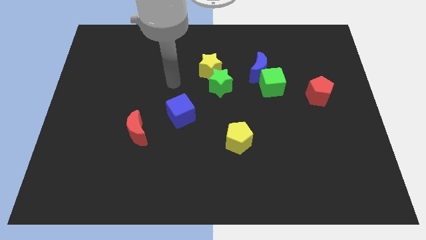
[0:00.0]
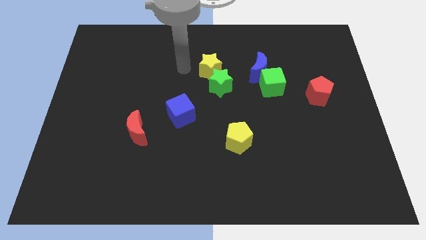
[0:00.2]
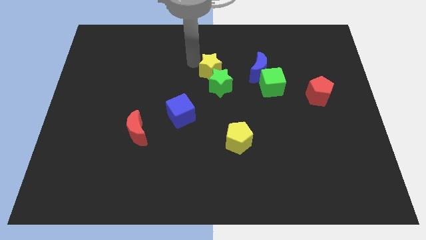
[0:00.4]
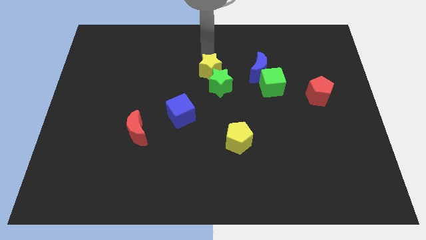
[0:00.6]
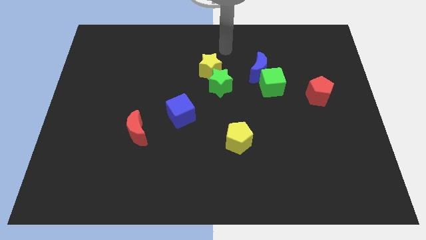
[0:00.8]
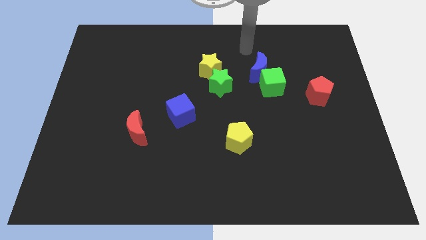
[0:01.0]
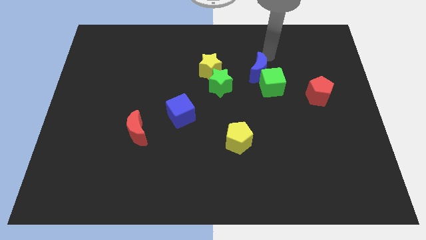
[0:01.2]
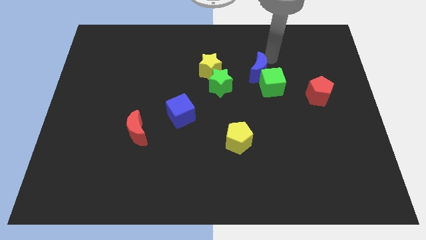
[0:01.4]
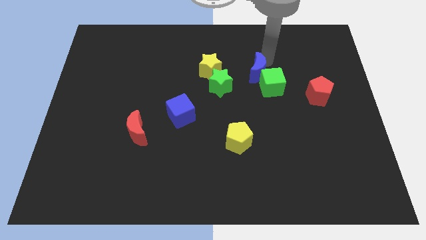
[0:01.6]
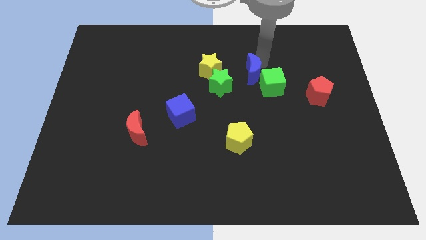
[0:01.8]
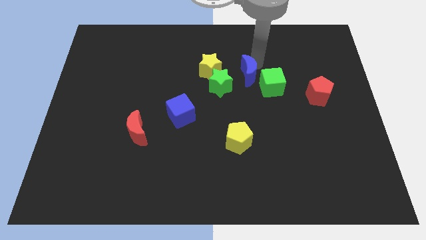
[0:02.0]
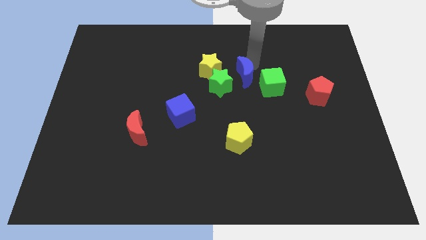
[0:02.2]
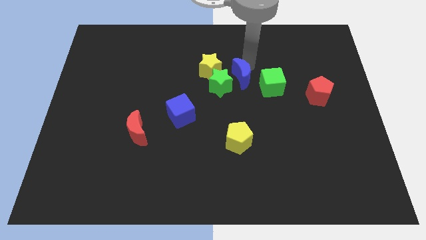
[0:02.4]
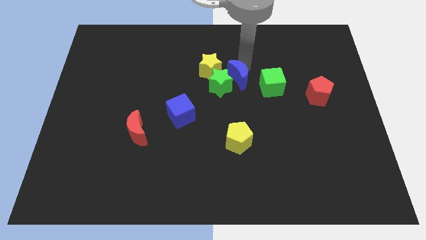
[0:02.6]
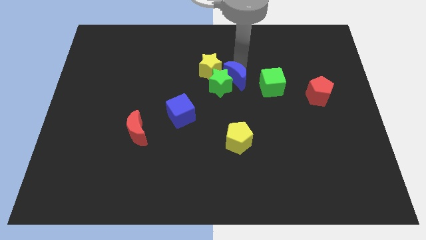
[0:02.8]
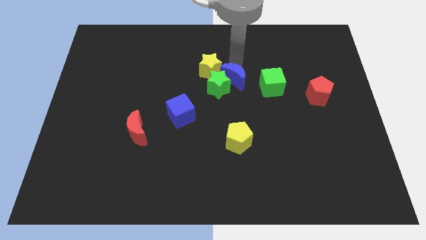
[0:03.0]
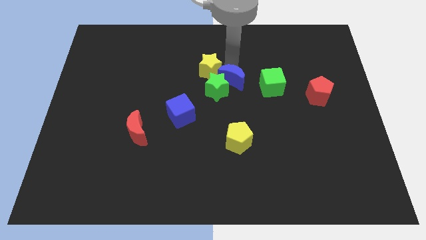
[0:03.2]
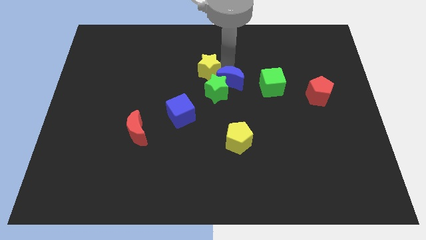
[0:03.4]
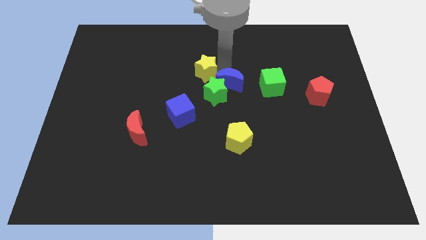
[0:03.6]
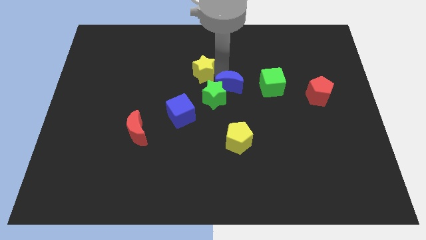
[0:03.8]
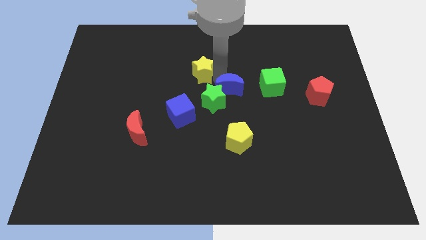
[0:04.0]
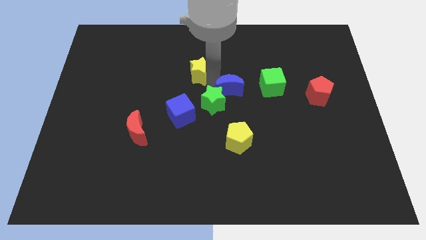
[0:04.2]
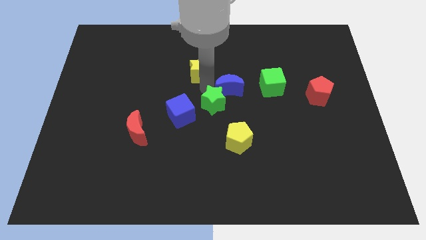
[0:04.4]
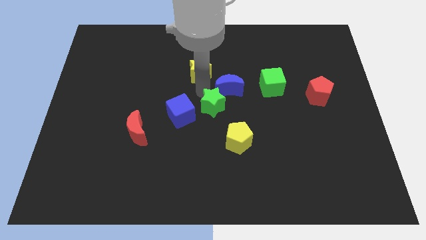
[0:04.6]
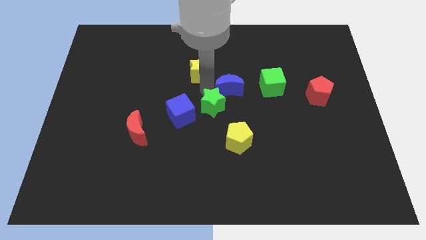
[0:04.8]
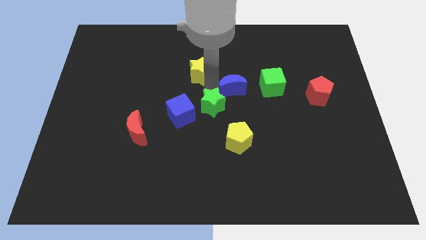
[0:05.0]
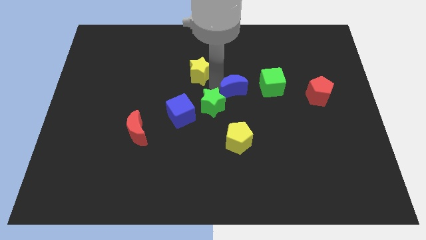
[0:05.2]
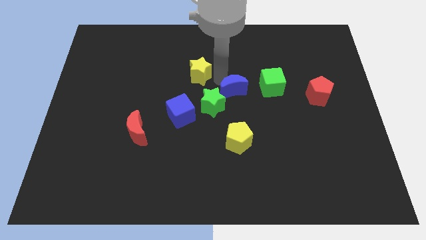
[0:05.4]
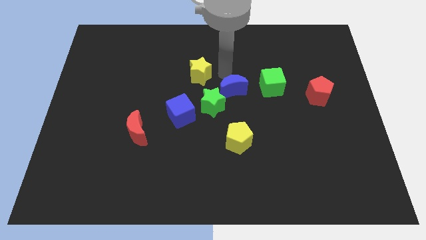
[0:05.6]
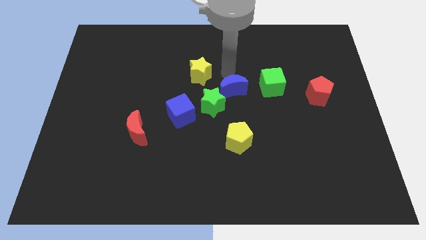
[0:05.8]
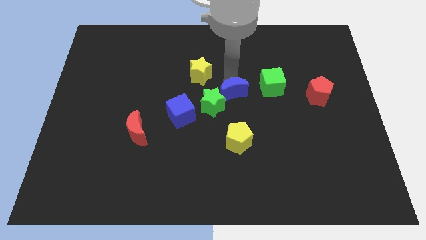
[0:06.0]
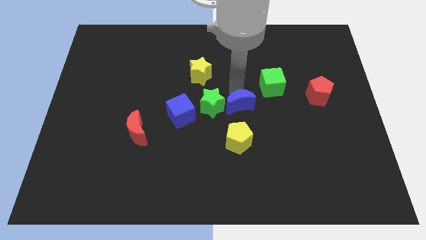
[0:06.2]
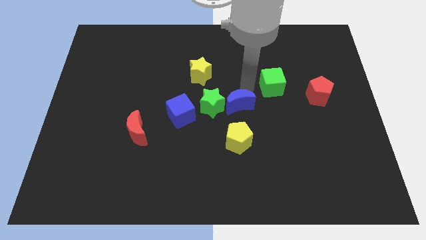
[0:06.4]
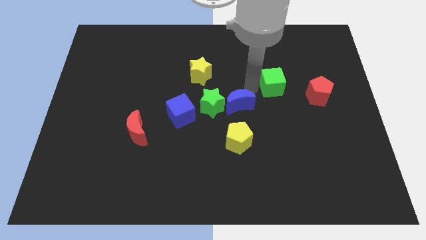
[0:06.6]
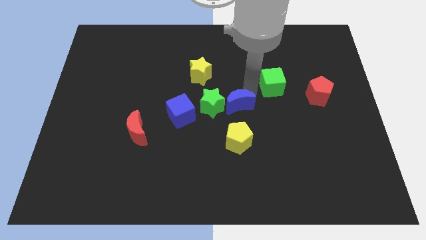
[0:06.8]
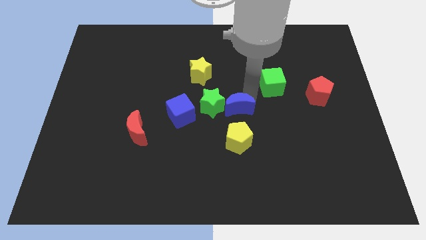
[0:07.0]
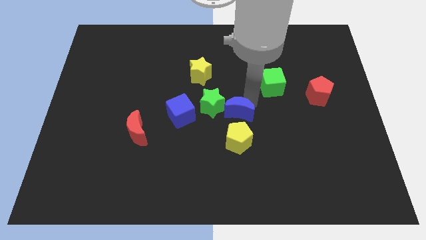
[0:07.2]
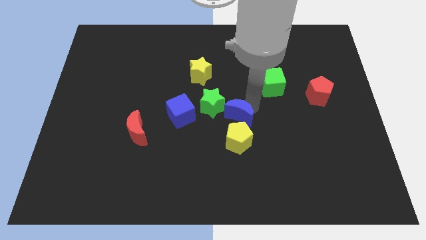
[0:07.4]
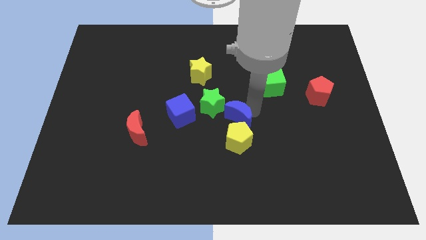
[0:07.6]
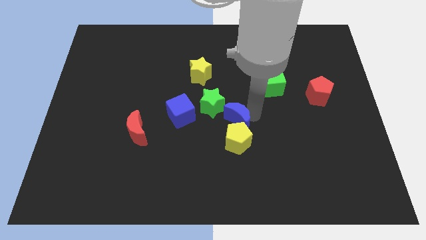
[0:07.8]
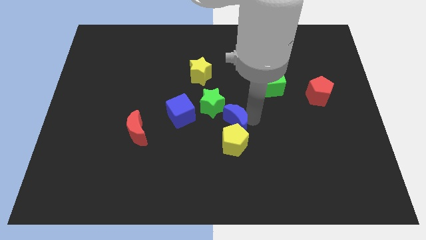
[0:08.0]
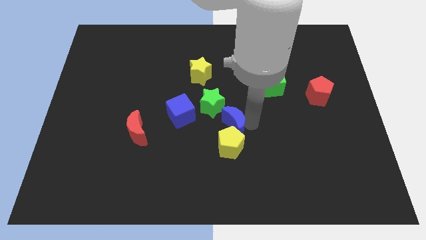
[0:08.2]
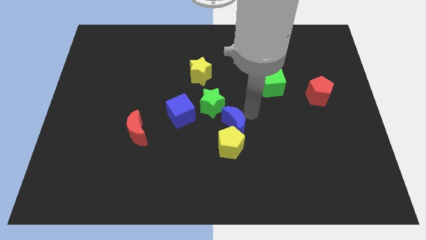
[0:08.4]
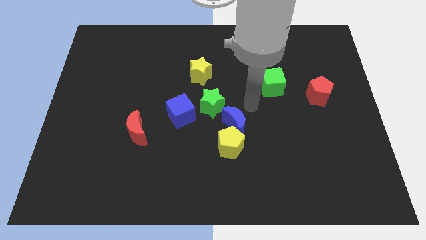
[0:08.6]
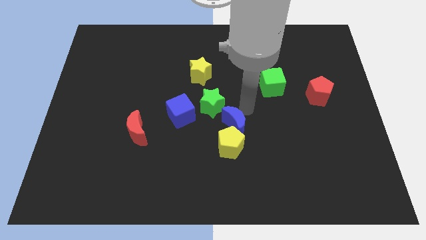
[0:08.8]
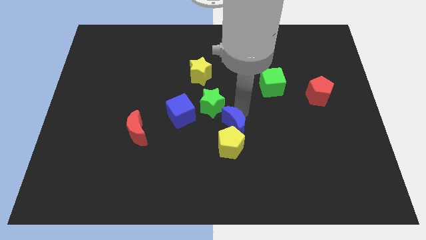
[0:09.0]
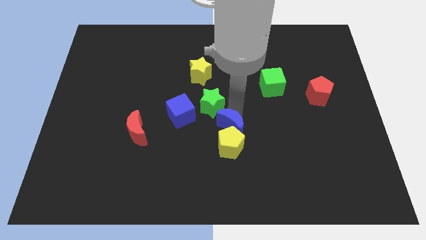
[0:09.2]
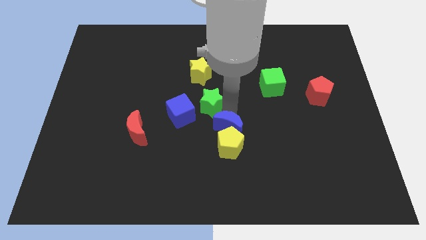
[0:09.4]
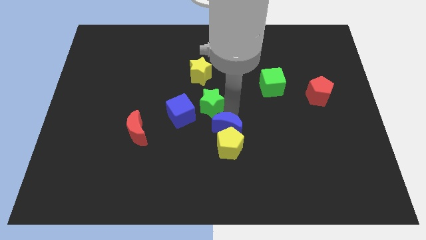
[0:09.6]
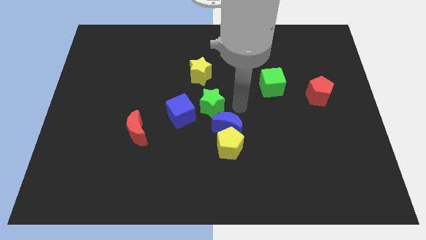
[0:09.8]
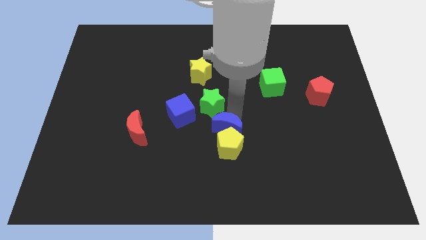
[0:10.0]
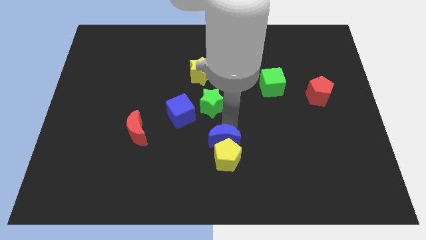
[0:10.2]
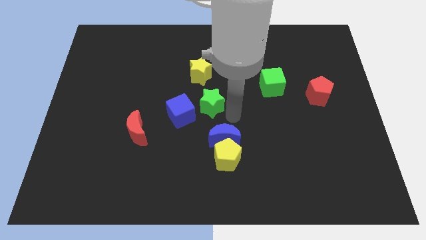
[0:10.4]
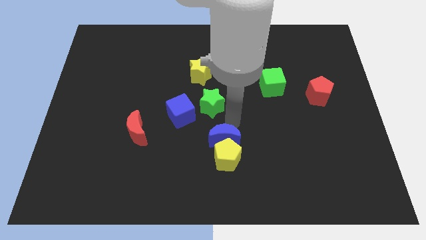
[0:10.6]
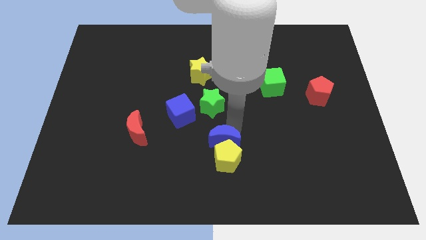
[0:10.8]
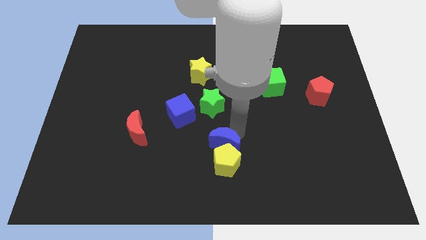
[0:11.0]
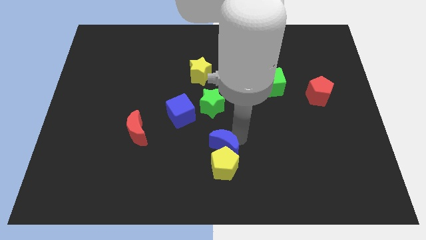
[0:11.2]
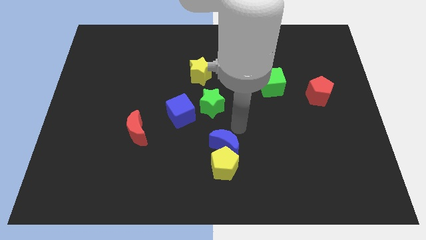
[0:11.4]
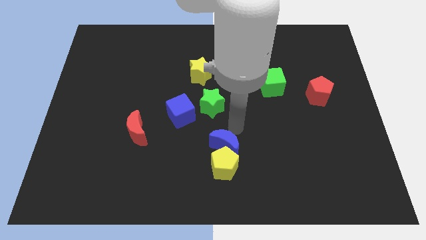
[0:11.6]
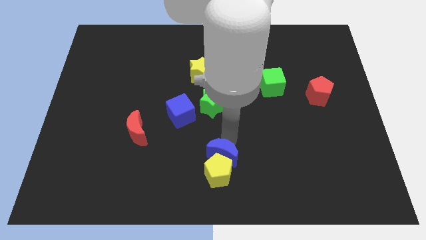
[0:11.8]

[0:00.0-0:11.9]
push the blue moon to the bottom side

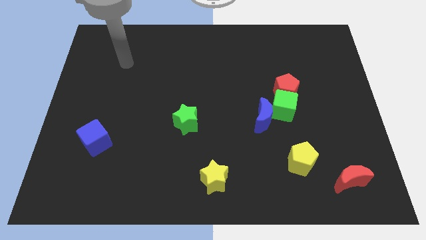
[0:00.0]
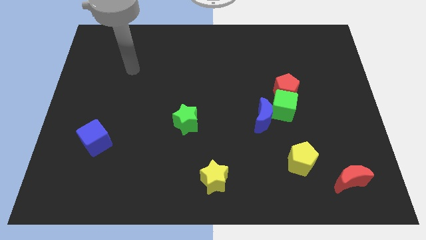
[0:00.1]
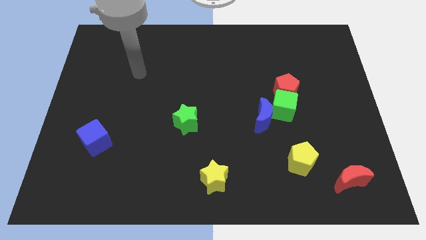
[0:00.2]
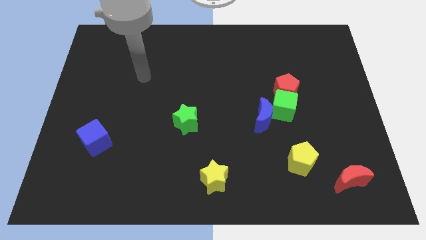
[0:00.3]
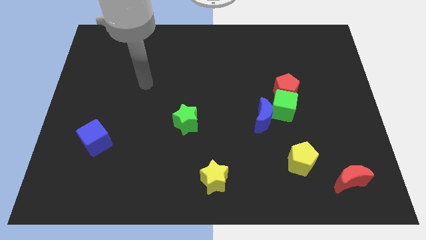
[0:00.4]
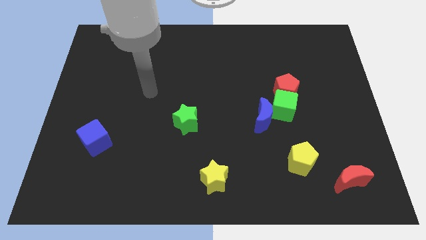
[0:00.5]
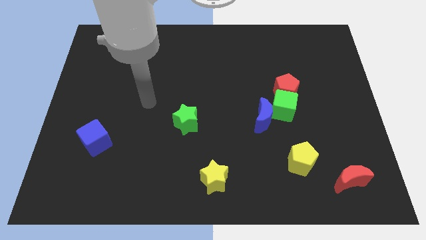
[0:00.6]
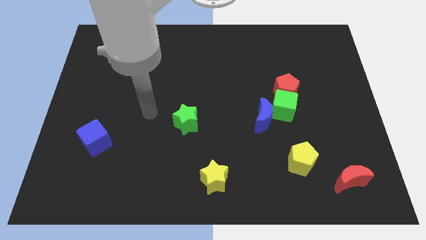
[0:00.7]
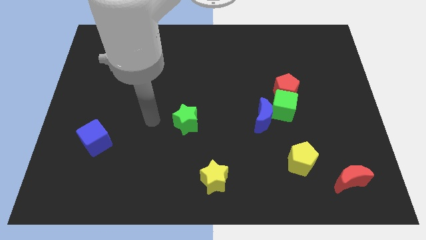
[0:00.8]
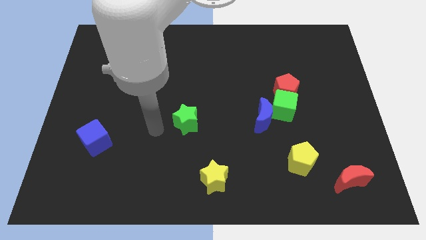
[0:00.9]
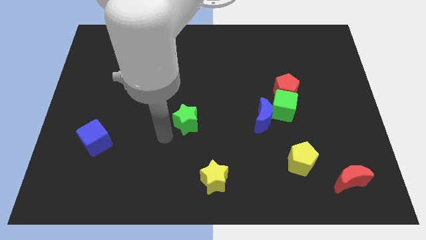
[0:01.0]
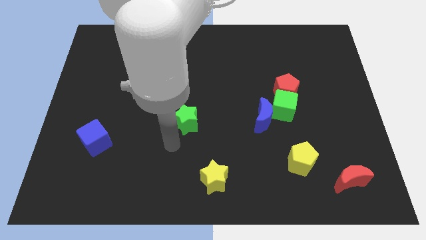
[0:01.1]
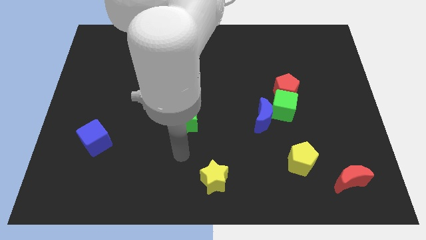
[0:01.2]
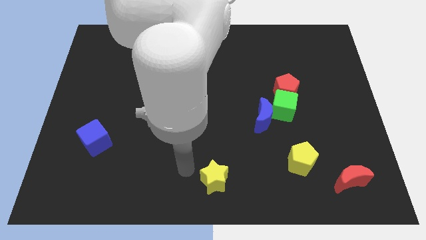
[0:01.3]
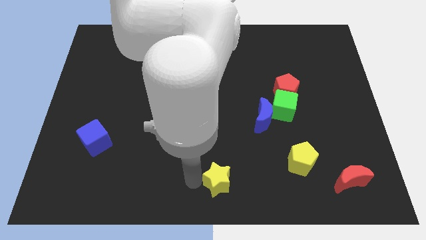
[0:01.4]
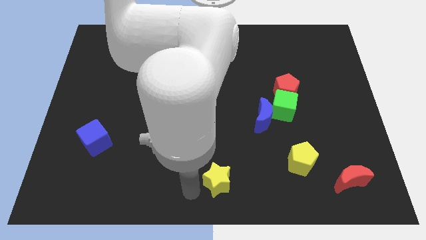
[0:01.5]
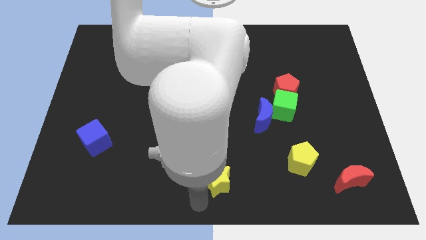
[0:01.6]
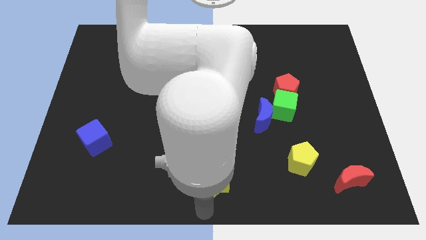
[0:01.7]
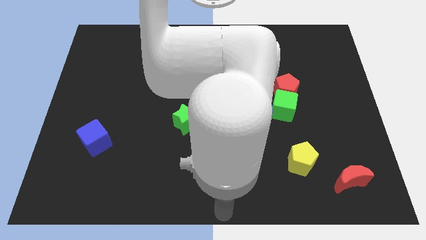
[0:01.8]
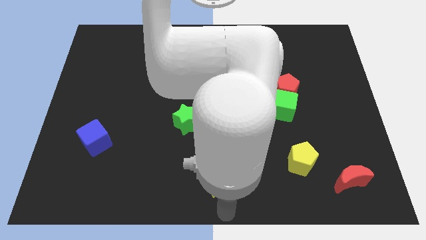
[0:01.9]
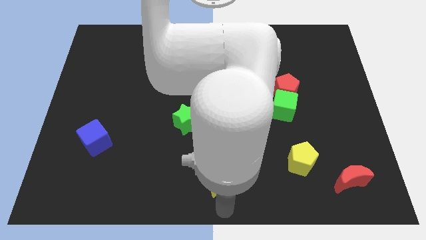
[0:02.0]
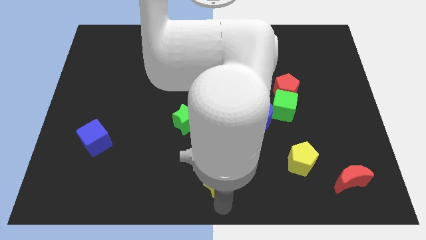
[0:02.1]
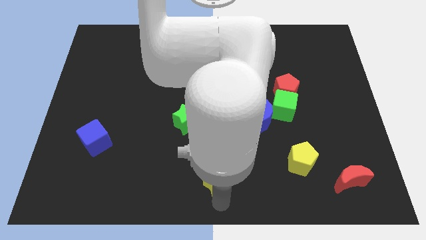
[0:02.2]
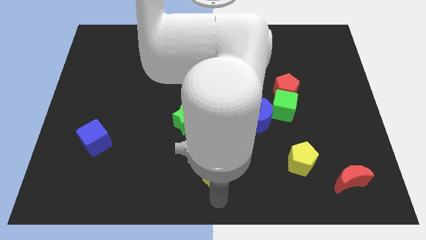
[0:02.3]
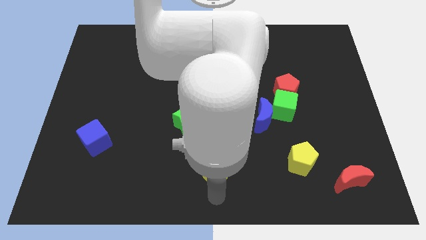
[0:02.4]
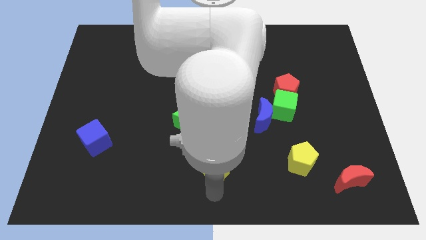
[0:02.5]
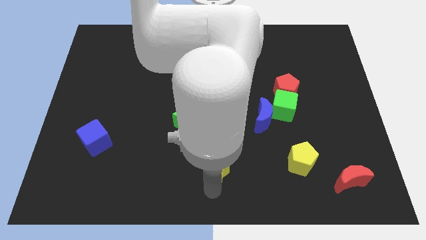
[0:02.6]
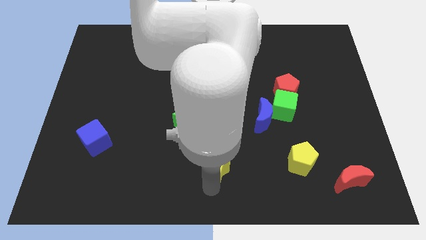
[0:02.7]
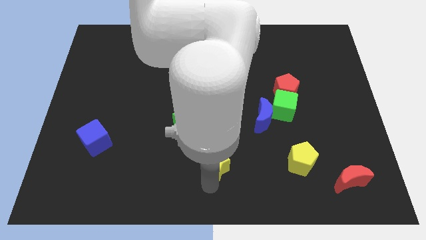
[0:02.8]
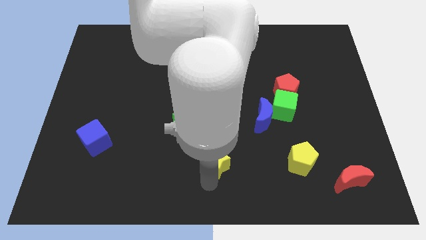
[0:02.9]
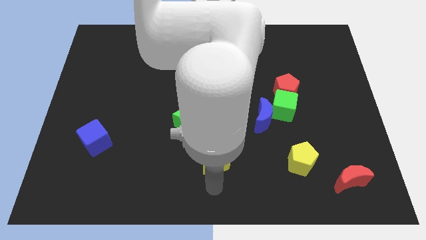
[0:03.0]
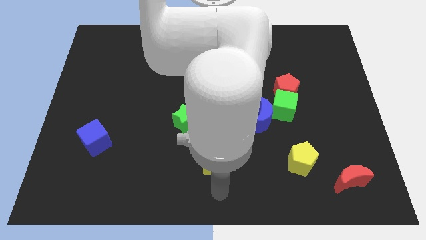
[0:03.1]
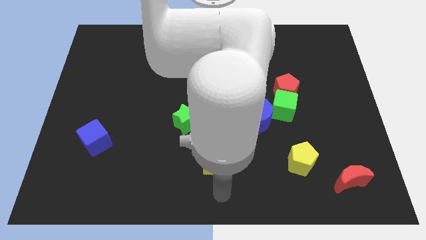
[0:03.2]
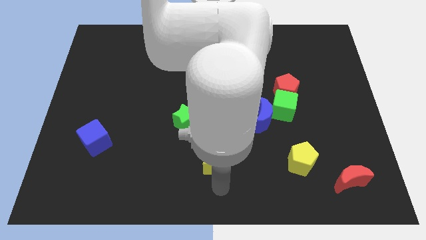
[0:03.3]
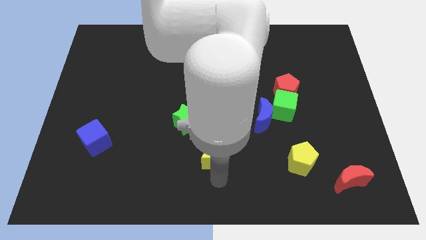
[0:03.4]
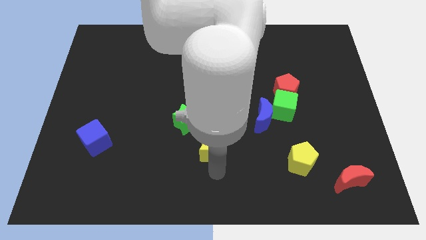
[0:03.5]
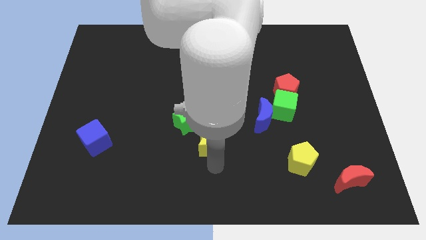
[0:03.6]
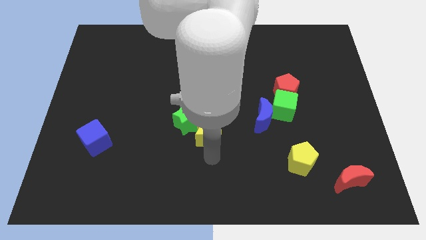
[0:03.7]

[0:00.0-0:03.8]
slide the yellow star to the center
